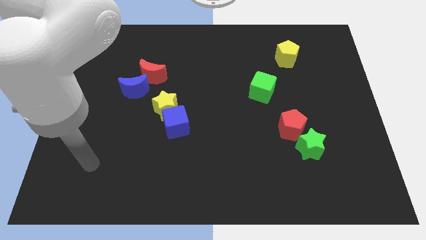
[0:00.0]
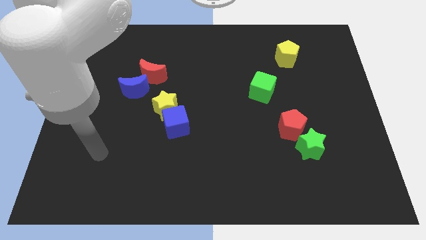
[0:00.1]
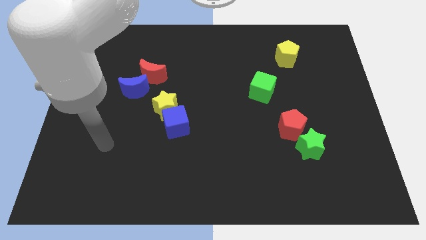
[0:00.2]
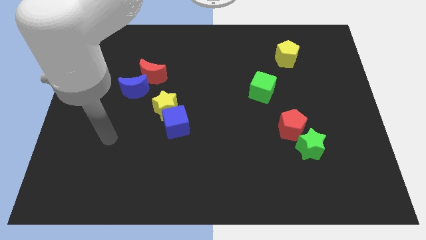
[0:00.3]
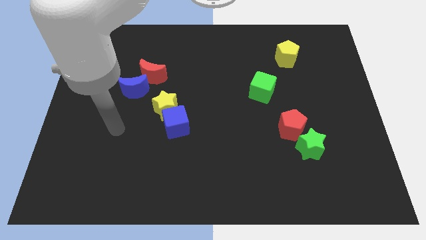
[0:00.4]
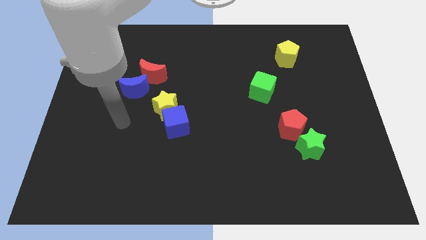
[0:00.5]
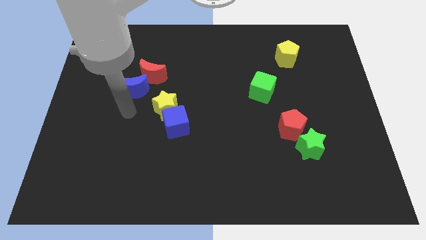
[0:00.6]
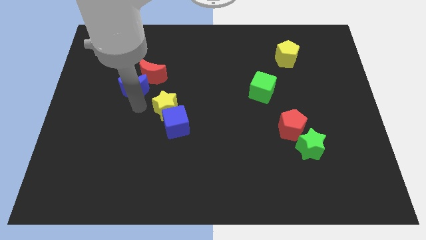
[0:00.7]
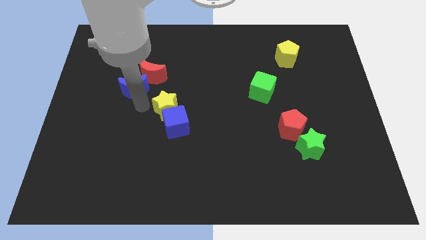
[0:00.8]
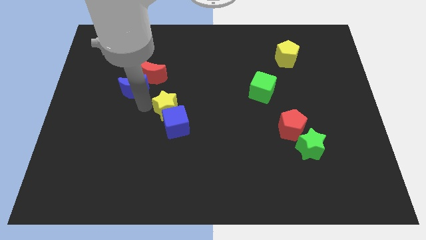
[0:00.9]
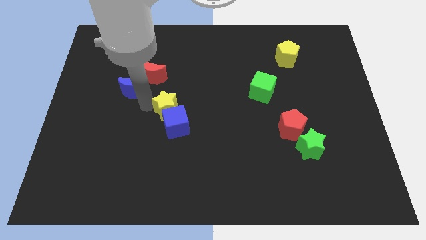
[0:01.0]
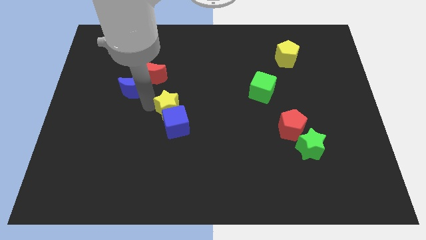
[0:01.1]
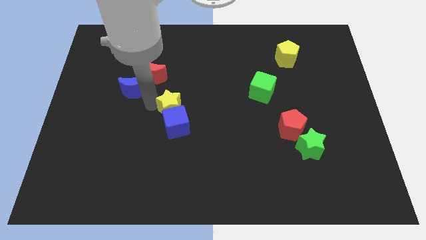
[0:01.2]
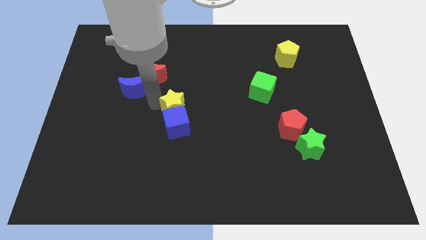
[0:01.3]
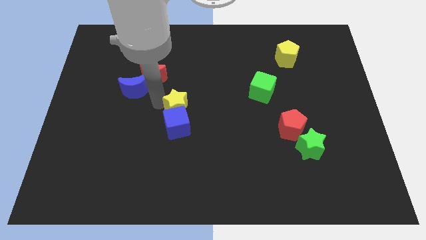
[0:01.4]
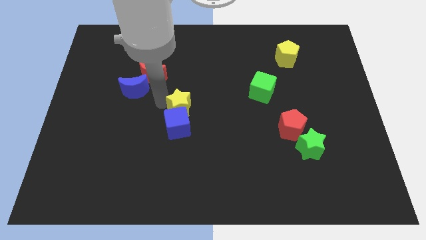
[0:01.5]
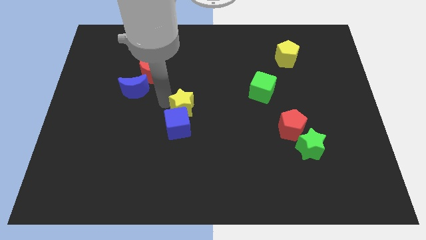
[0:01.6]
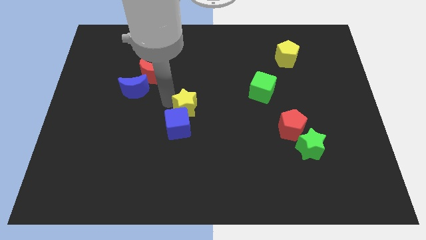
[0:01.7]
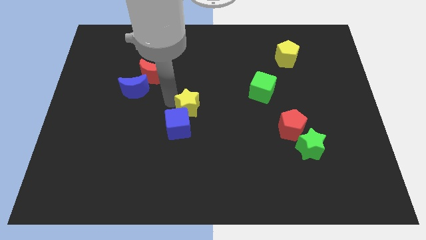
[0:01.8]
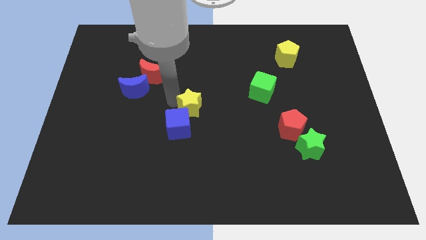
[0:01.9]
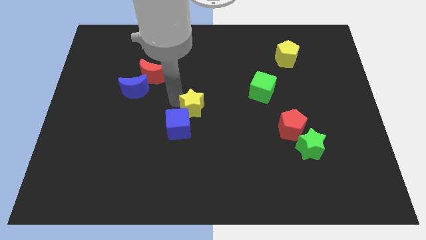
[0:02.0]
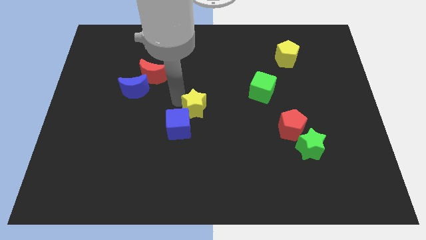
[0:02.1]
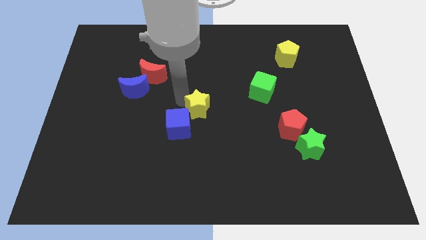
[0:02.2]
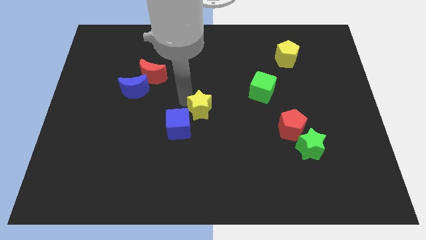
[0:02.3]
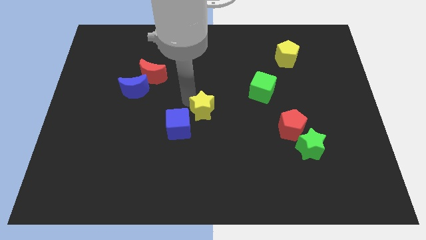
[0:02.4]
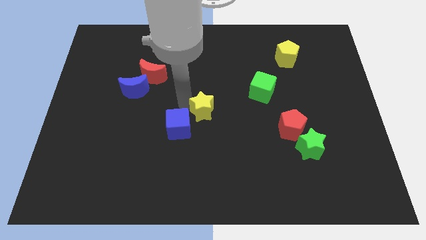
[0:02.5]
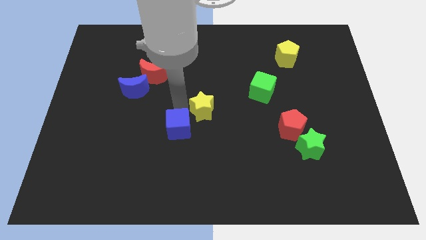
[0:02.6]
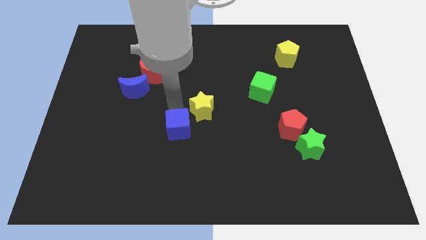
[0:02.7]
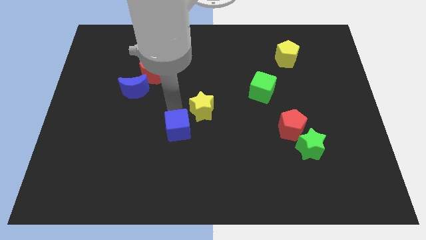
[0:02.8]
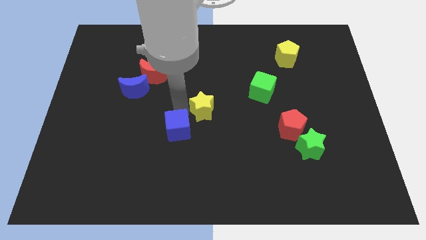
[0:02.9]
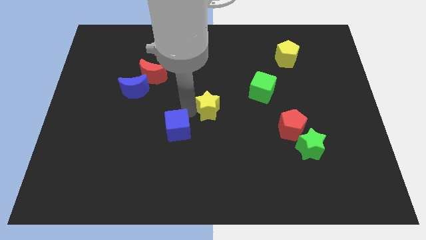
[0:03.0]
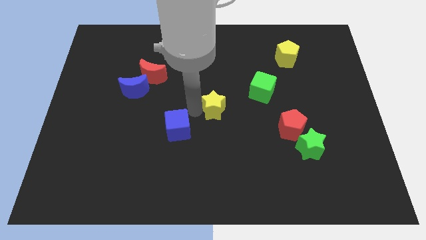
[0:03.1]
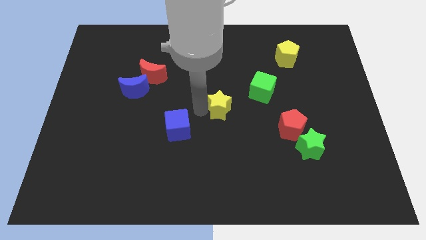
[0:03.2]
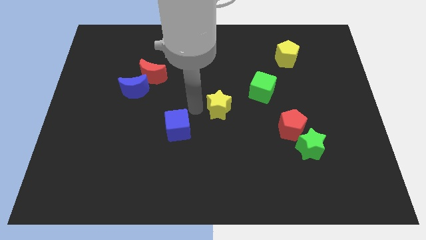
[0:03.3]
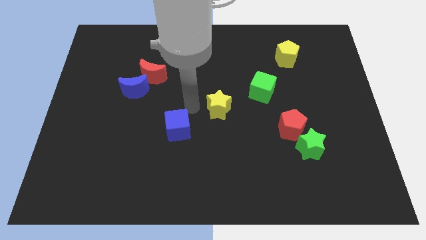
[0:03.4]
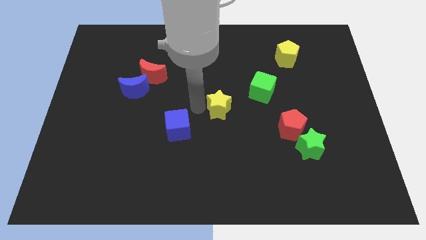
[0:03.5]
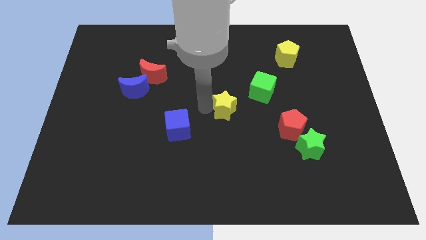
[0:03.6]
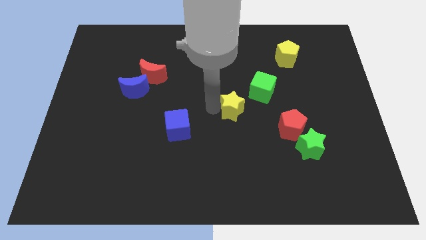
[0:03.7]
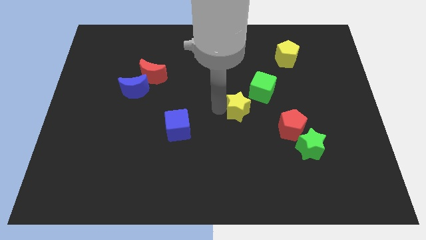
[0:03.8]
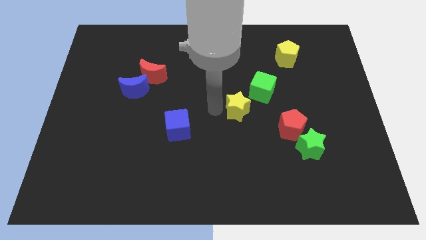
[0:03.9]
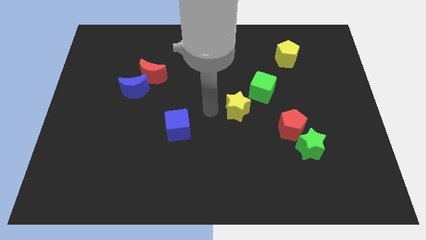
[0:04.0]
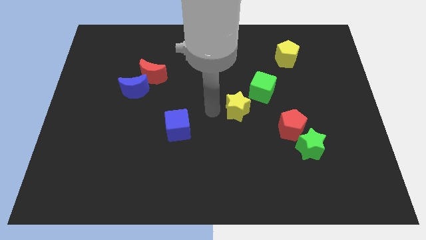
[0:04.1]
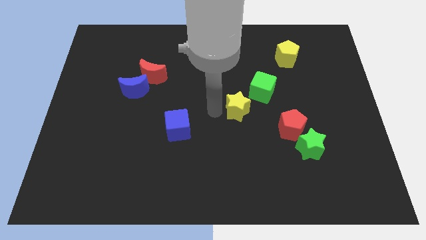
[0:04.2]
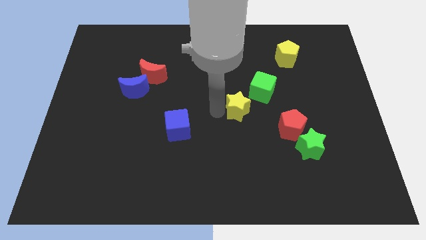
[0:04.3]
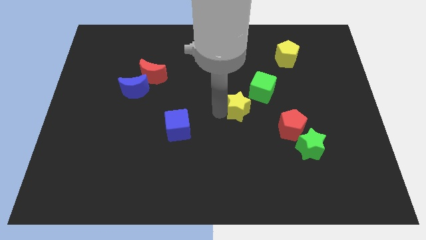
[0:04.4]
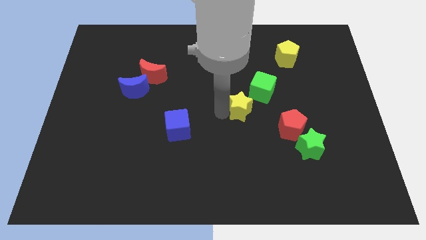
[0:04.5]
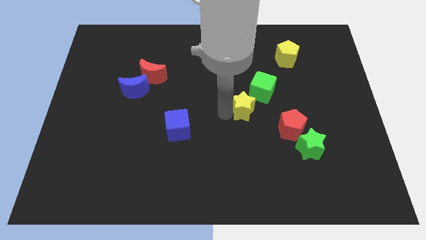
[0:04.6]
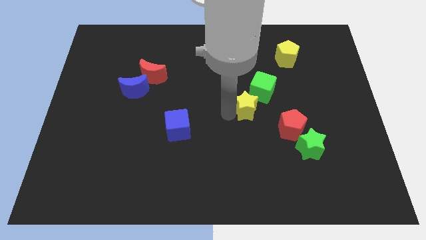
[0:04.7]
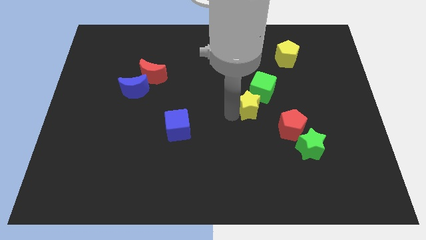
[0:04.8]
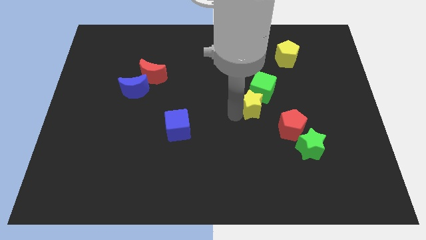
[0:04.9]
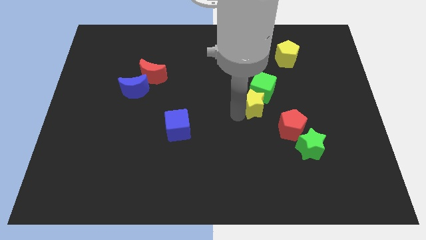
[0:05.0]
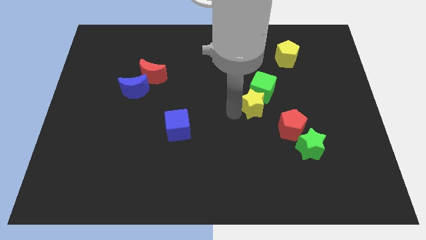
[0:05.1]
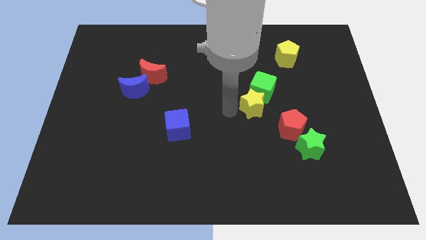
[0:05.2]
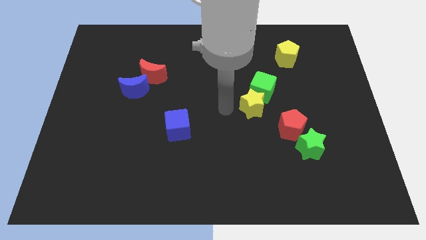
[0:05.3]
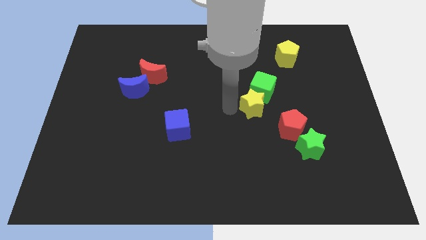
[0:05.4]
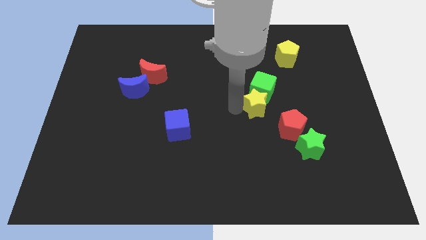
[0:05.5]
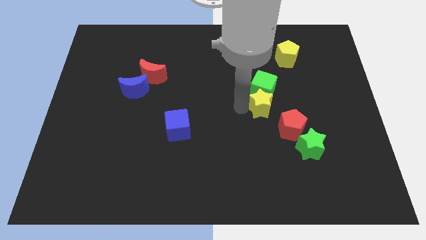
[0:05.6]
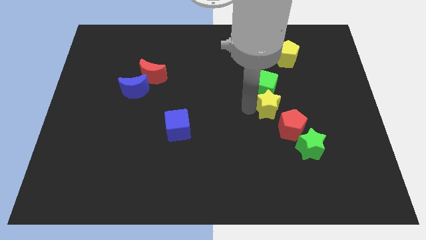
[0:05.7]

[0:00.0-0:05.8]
put the yellow star to the top side of the red pentagon

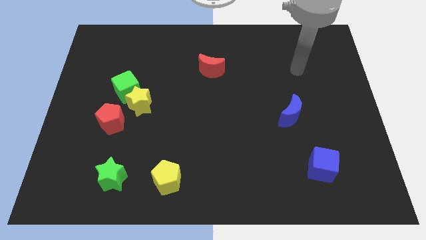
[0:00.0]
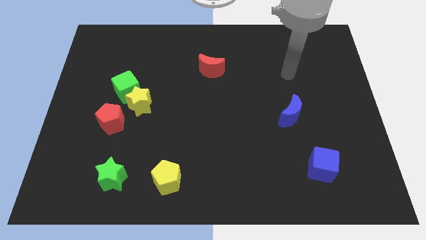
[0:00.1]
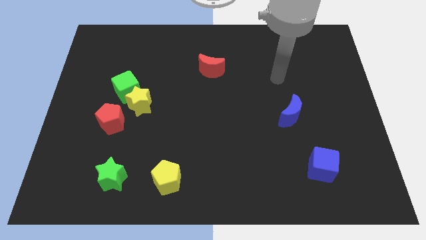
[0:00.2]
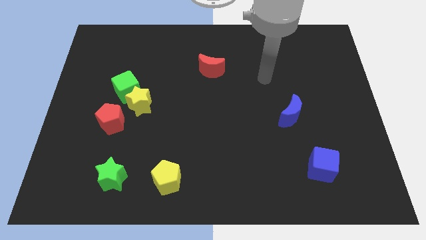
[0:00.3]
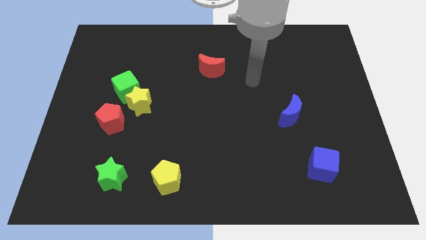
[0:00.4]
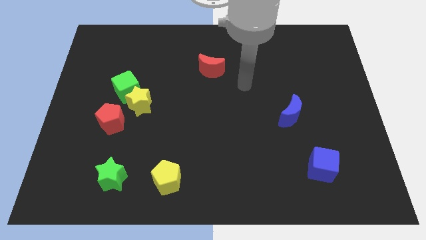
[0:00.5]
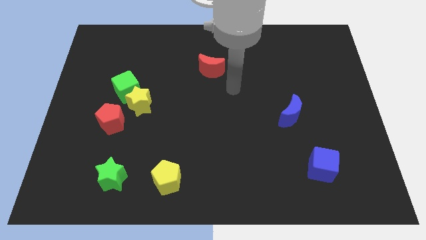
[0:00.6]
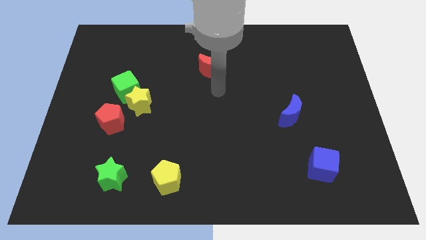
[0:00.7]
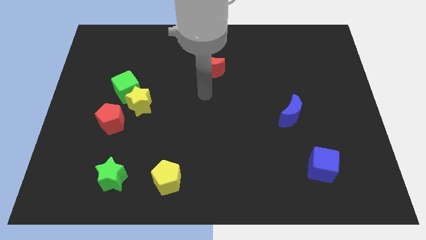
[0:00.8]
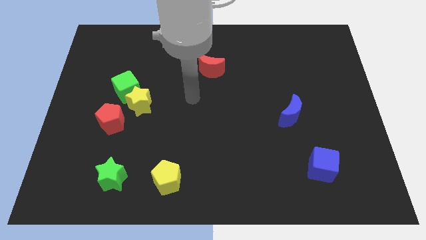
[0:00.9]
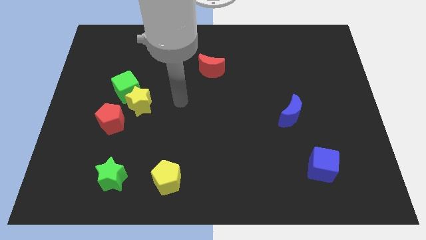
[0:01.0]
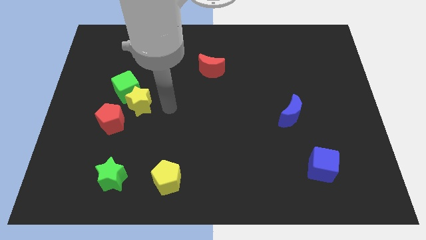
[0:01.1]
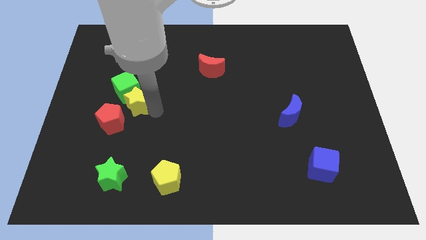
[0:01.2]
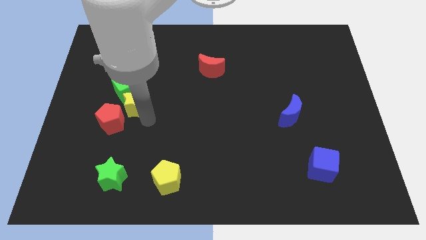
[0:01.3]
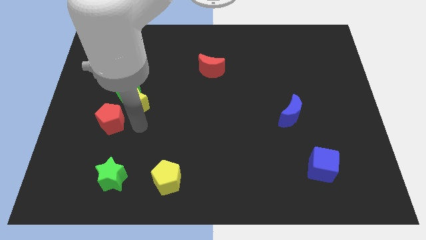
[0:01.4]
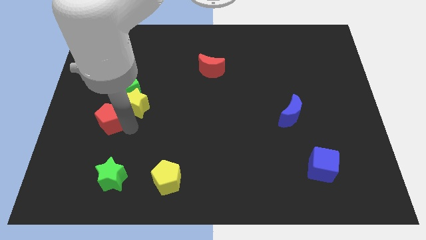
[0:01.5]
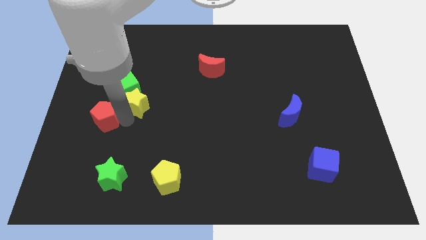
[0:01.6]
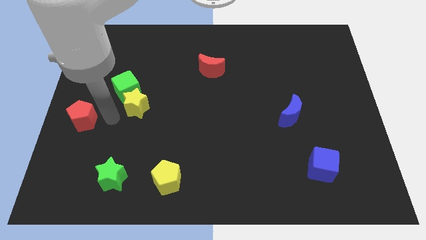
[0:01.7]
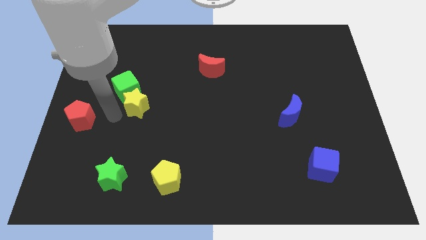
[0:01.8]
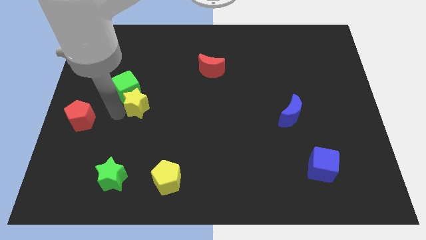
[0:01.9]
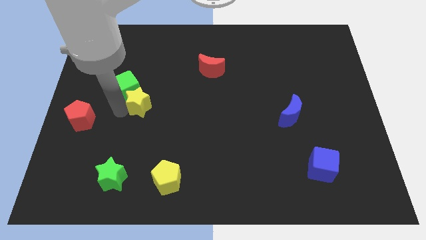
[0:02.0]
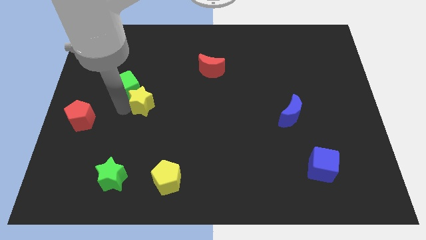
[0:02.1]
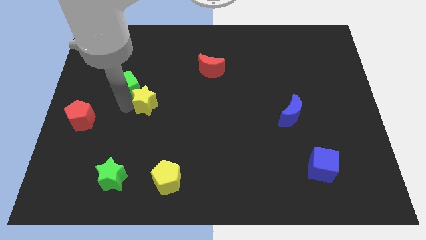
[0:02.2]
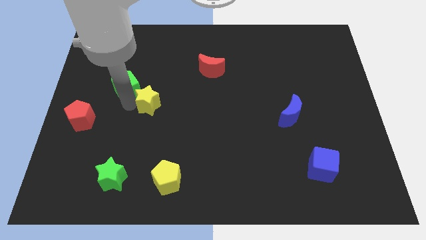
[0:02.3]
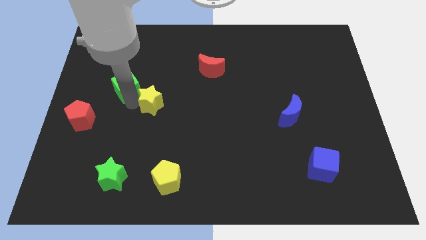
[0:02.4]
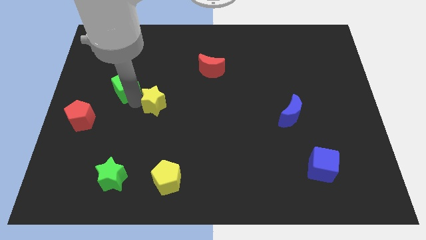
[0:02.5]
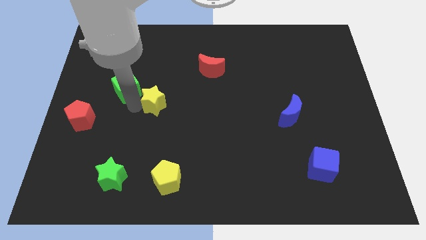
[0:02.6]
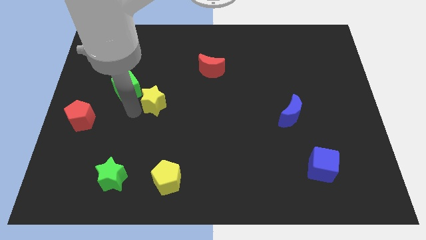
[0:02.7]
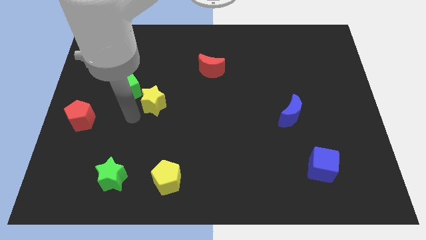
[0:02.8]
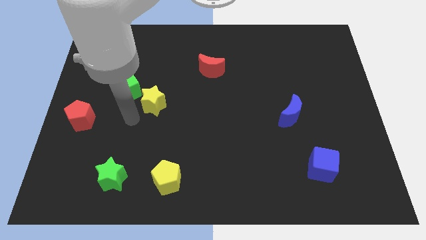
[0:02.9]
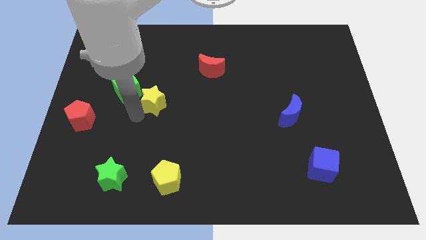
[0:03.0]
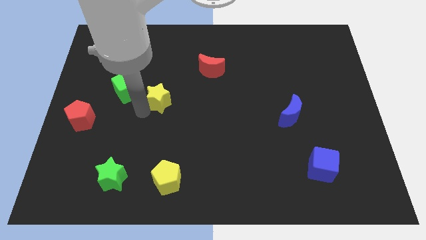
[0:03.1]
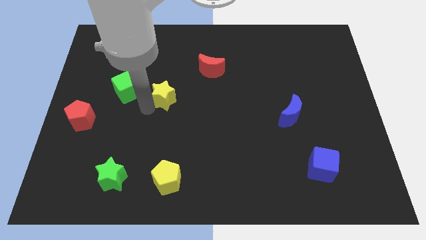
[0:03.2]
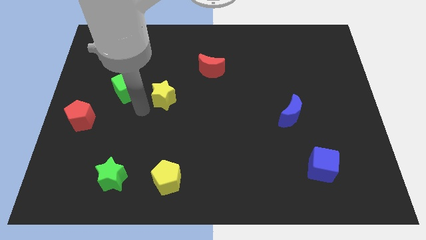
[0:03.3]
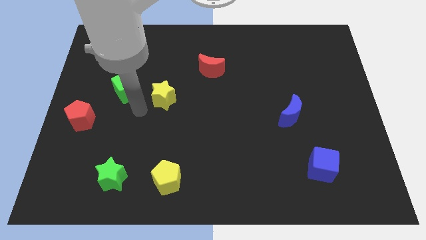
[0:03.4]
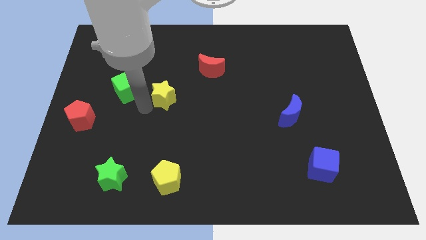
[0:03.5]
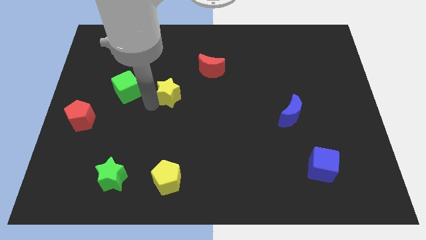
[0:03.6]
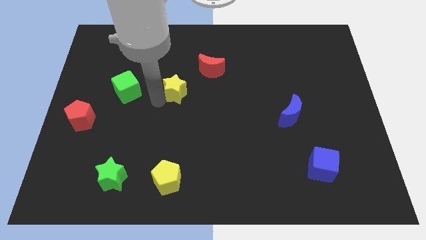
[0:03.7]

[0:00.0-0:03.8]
slide the yellow star diagonally down and to the left of the red moon
